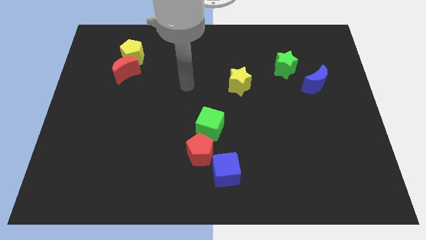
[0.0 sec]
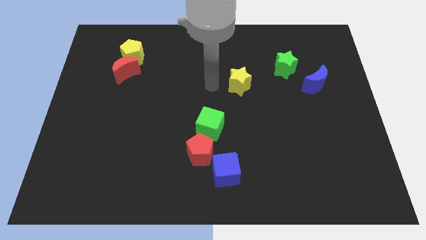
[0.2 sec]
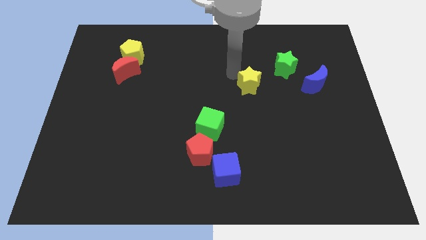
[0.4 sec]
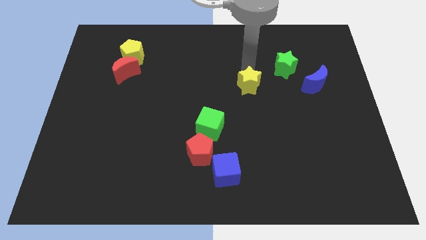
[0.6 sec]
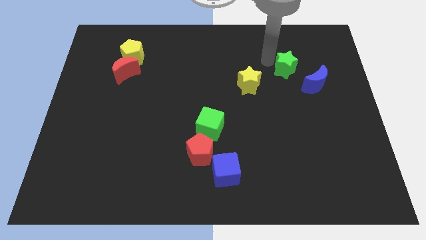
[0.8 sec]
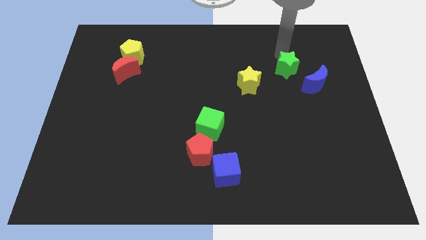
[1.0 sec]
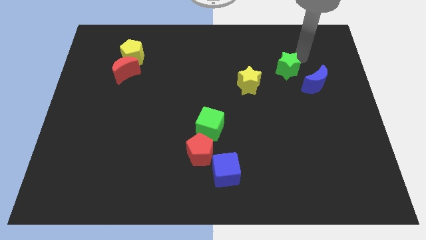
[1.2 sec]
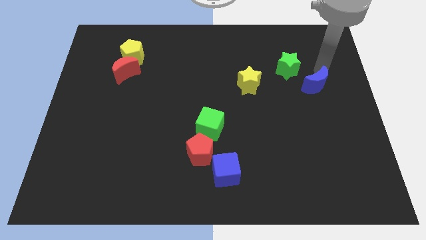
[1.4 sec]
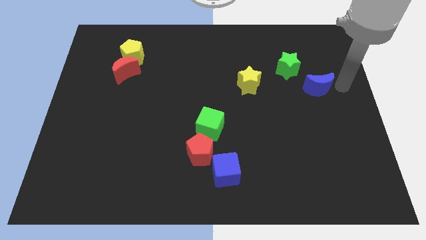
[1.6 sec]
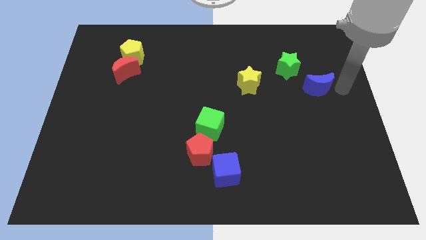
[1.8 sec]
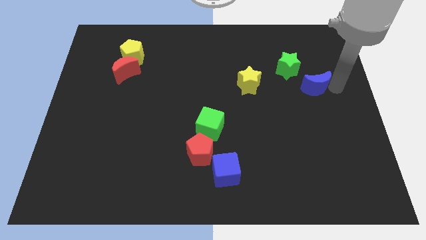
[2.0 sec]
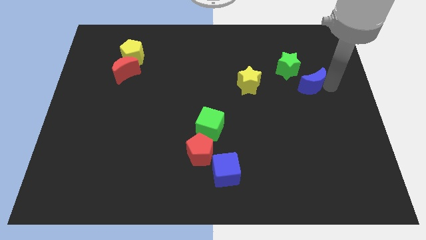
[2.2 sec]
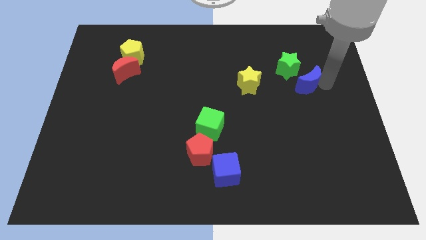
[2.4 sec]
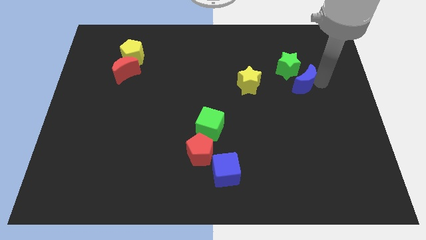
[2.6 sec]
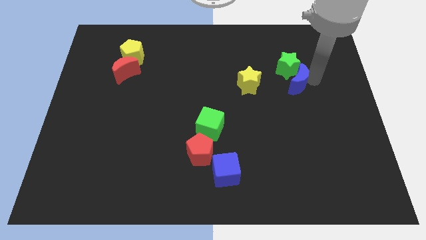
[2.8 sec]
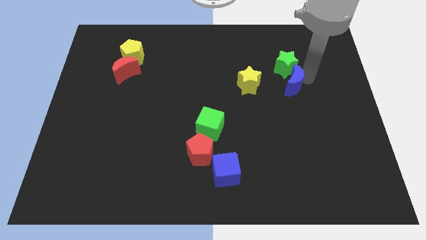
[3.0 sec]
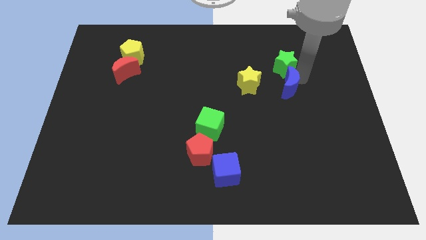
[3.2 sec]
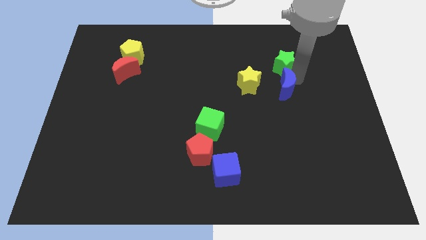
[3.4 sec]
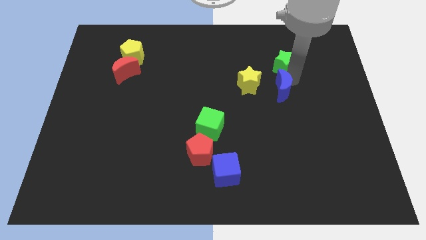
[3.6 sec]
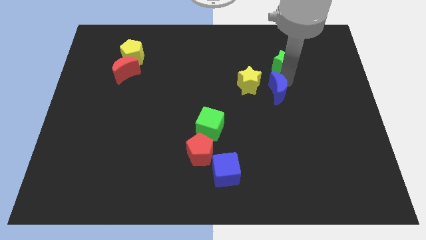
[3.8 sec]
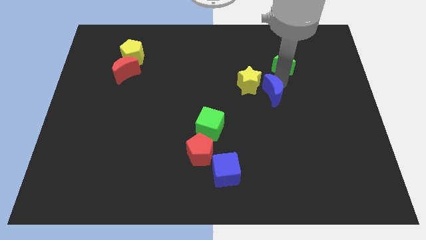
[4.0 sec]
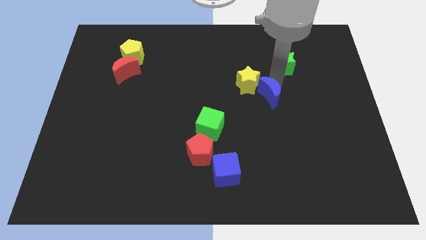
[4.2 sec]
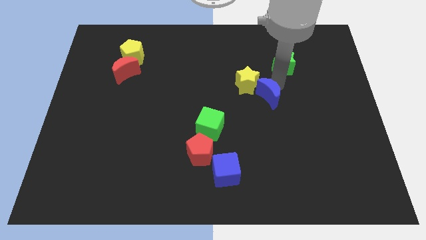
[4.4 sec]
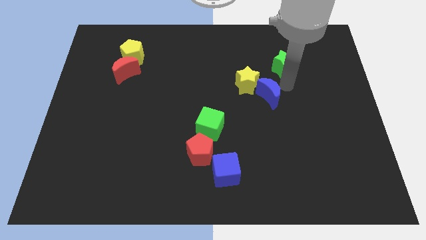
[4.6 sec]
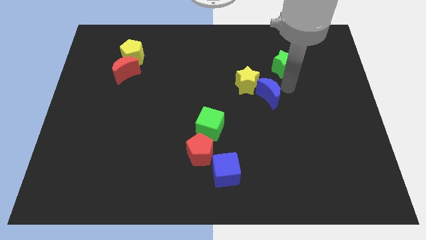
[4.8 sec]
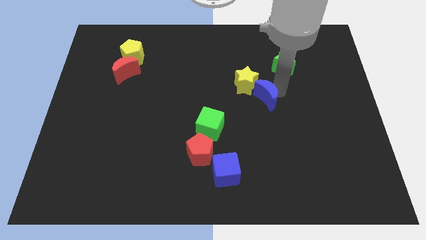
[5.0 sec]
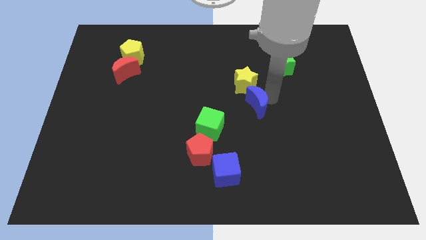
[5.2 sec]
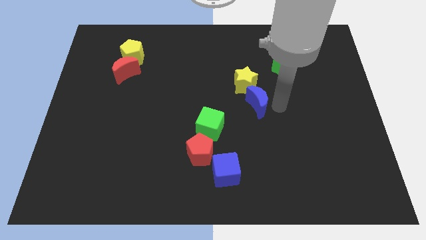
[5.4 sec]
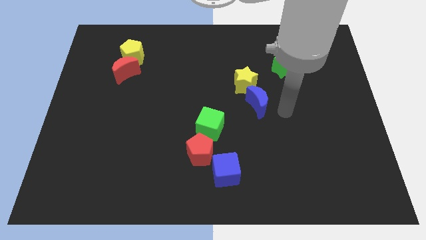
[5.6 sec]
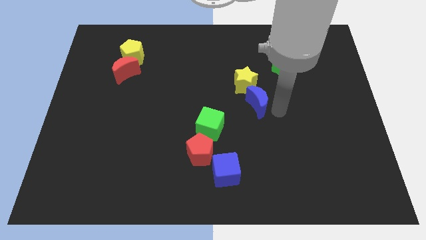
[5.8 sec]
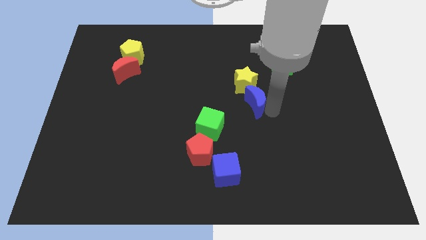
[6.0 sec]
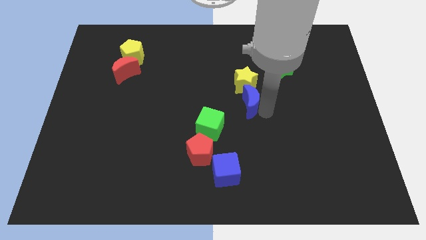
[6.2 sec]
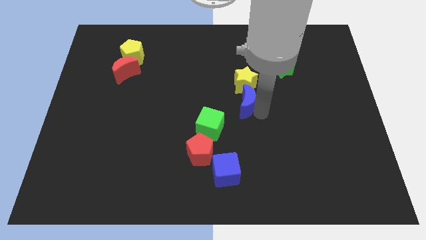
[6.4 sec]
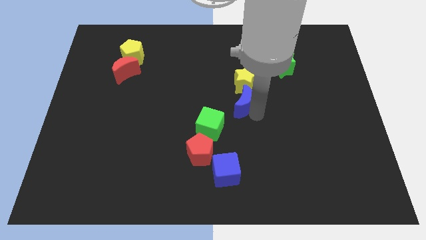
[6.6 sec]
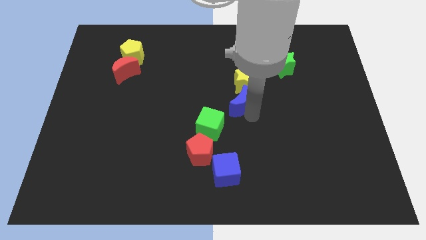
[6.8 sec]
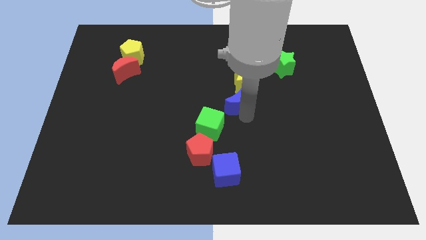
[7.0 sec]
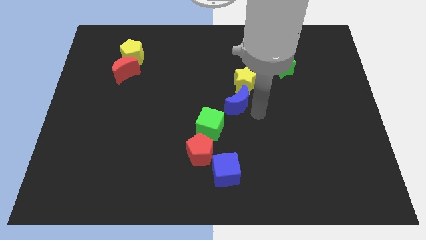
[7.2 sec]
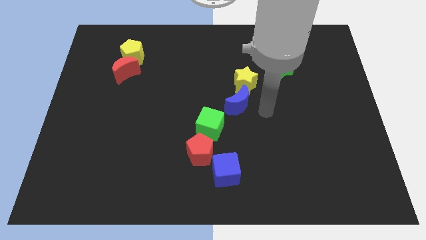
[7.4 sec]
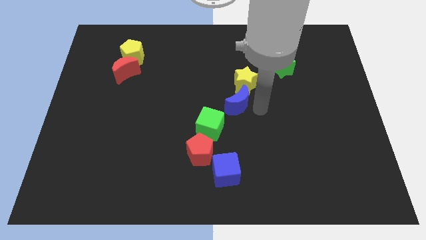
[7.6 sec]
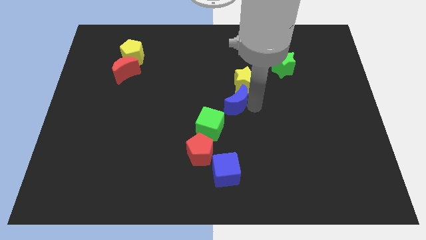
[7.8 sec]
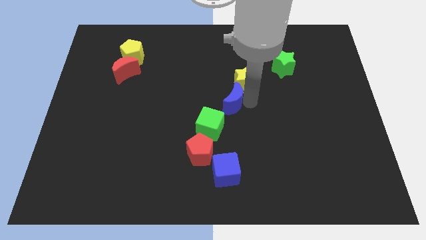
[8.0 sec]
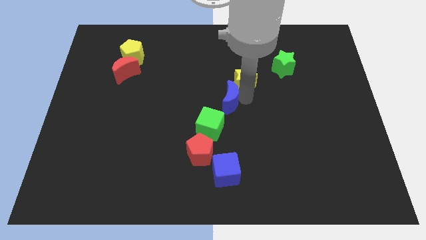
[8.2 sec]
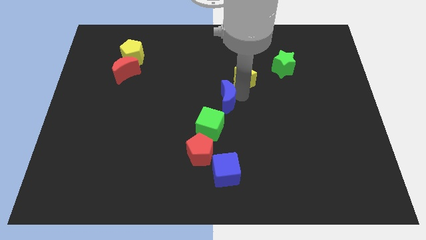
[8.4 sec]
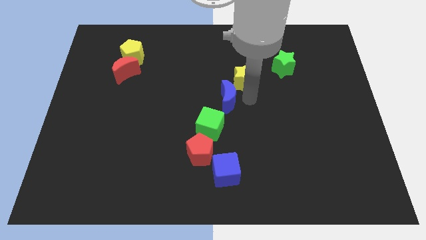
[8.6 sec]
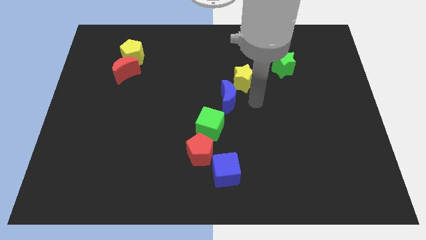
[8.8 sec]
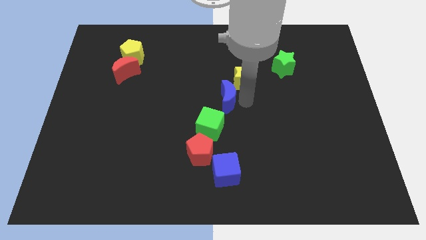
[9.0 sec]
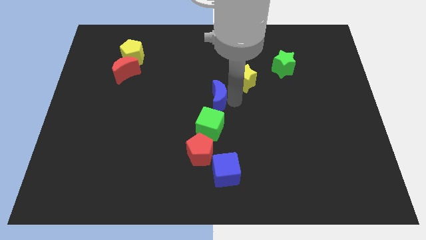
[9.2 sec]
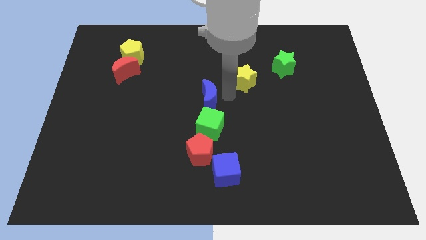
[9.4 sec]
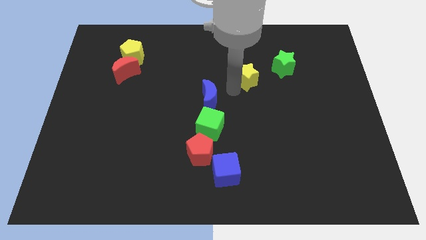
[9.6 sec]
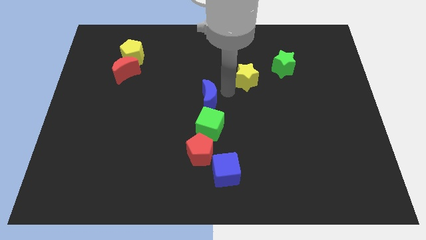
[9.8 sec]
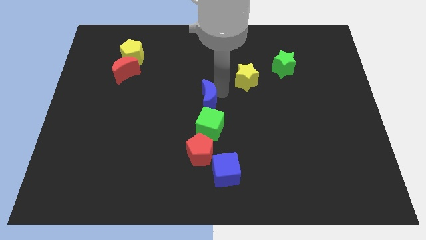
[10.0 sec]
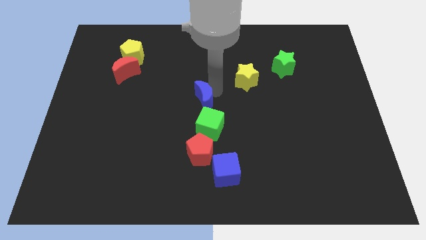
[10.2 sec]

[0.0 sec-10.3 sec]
push the blue moon to the top left side of the green cube

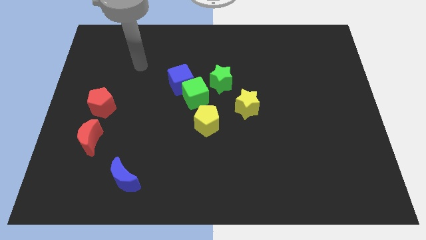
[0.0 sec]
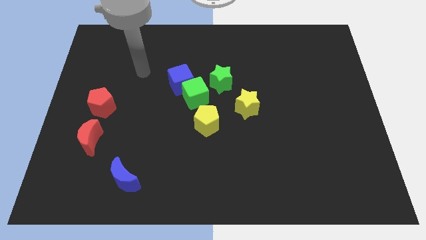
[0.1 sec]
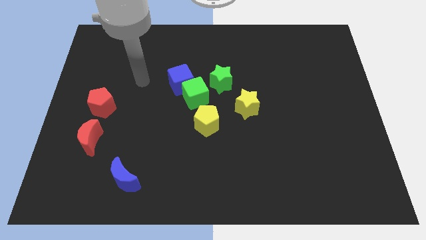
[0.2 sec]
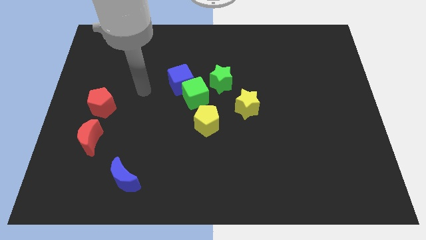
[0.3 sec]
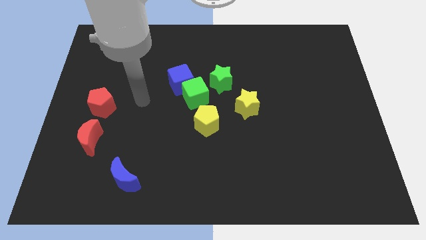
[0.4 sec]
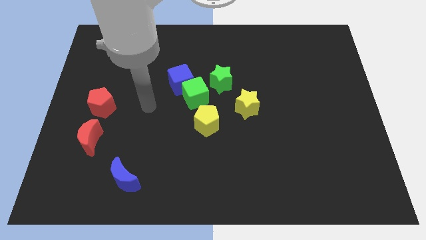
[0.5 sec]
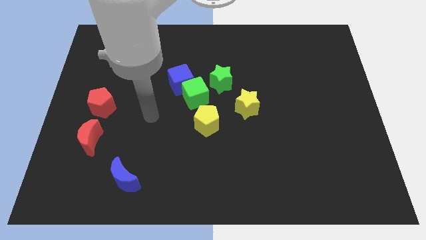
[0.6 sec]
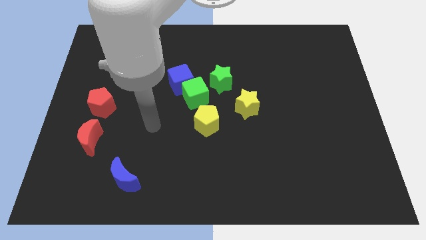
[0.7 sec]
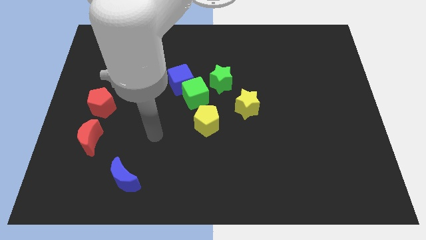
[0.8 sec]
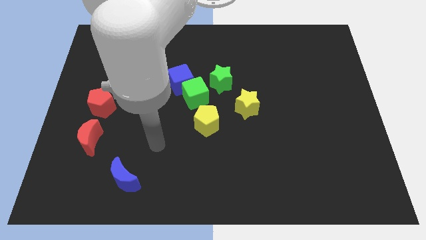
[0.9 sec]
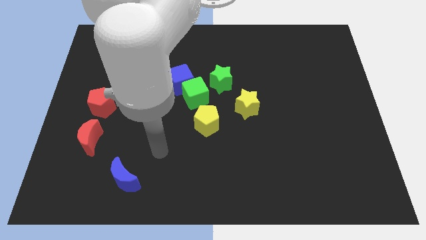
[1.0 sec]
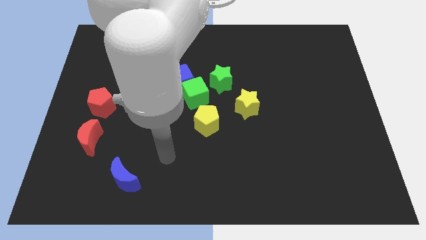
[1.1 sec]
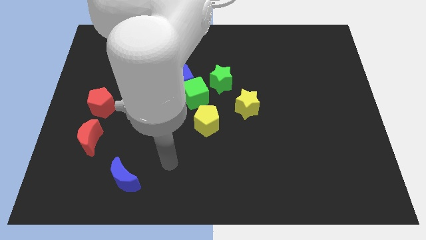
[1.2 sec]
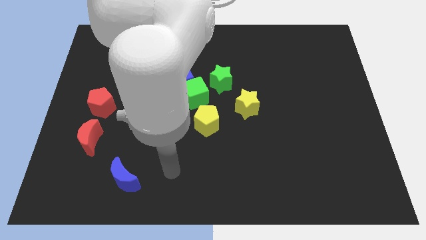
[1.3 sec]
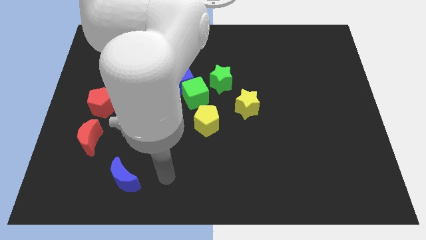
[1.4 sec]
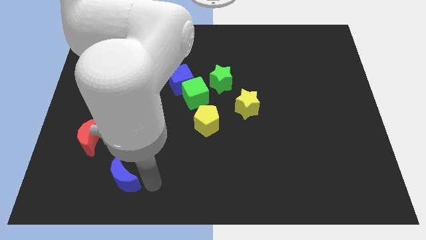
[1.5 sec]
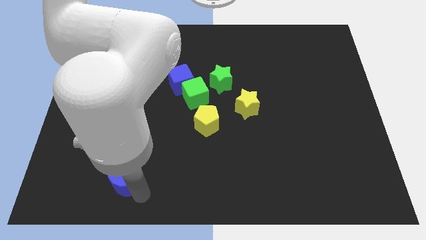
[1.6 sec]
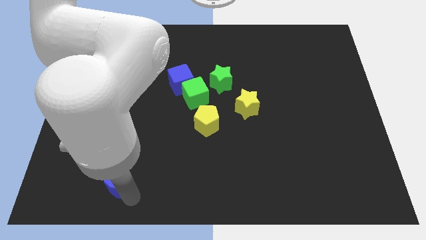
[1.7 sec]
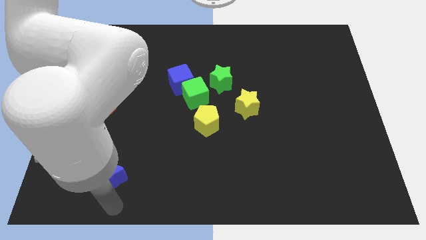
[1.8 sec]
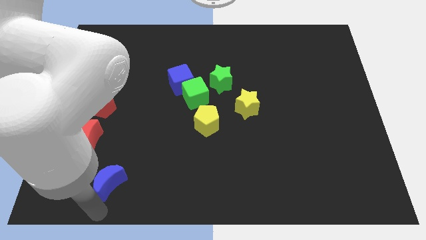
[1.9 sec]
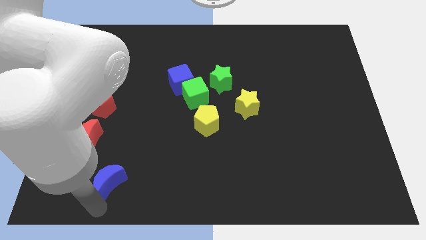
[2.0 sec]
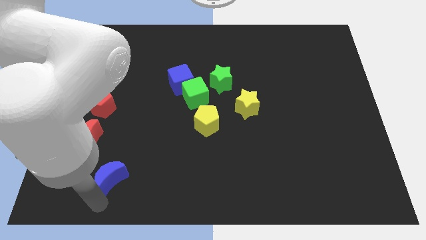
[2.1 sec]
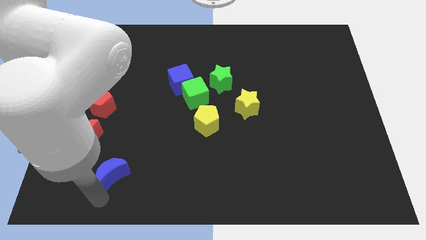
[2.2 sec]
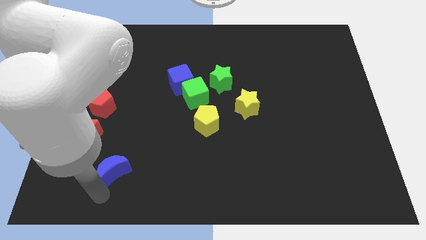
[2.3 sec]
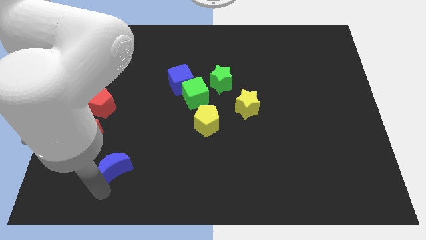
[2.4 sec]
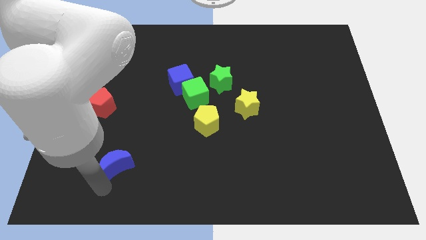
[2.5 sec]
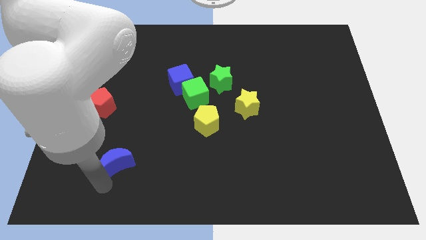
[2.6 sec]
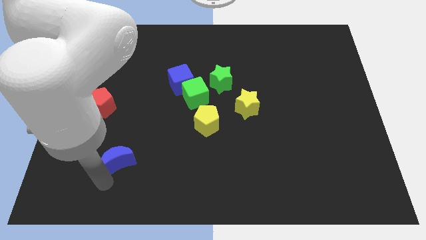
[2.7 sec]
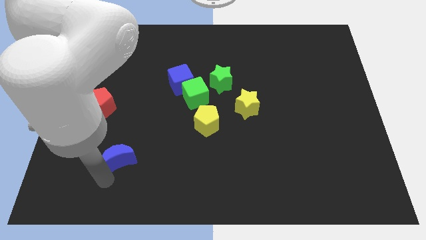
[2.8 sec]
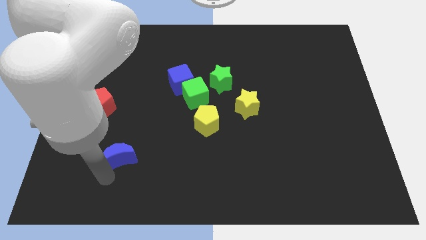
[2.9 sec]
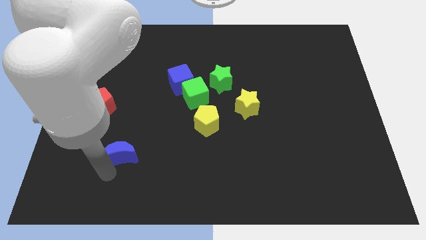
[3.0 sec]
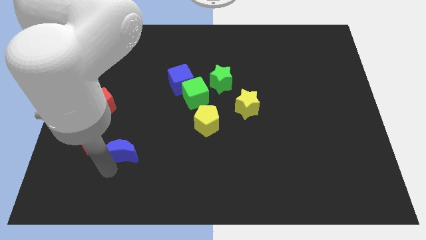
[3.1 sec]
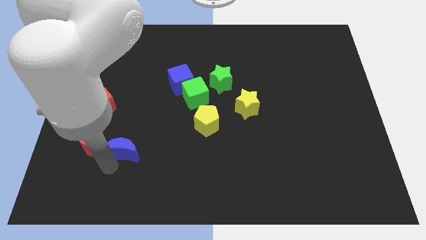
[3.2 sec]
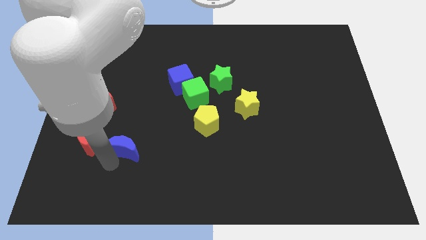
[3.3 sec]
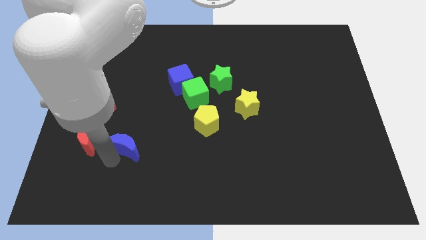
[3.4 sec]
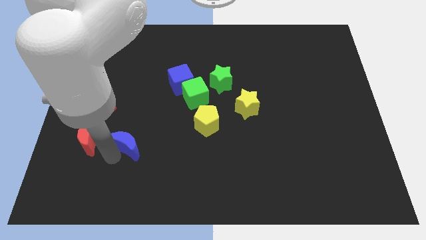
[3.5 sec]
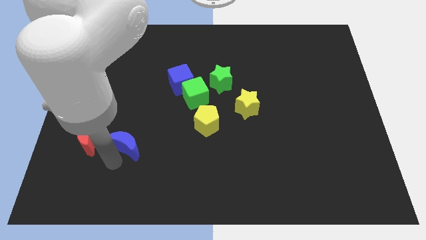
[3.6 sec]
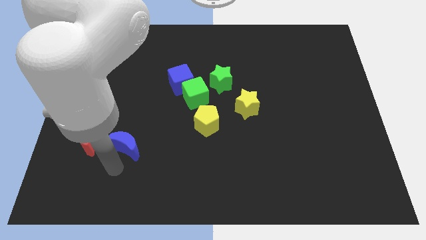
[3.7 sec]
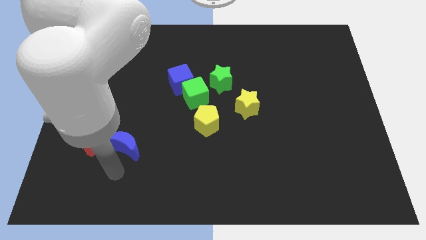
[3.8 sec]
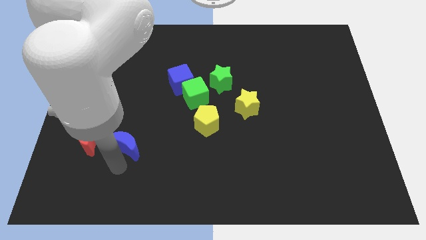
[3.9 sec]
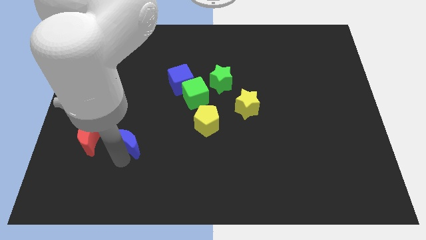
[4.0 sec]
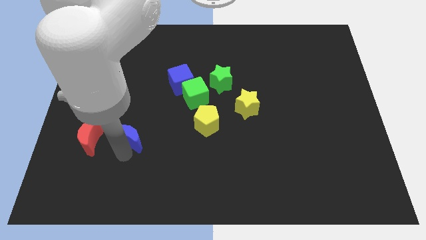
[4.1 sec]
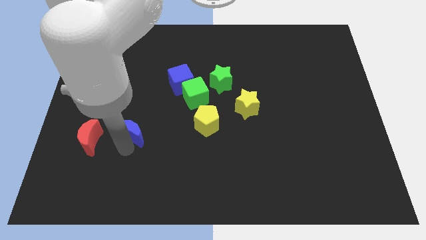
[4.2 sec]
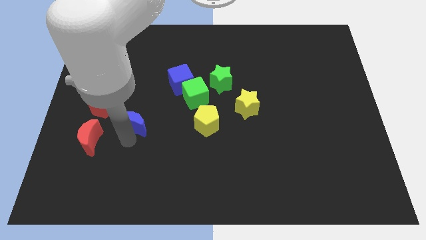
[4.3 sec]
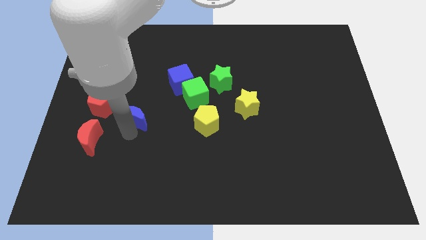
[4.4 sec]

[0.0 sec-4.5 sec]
push the blue moon right of the red pentagon
